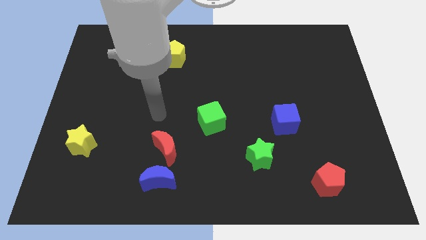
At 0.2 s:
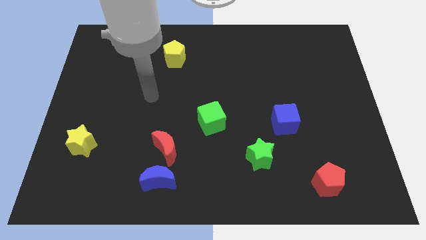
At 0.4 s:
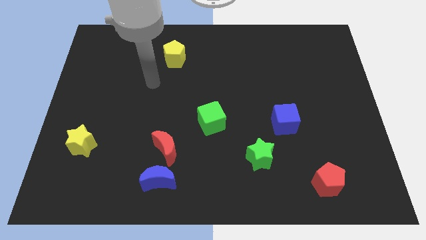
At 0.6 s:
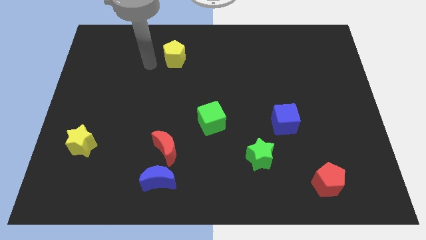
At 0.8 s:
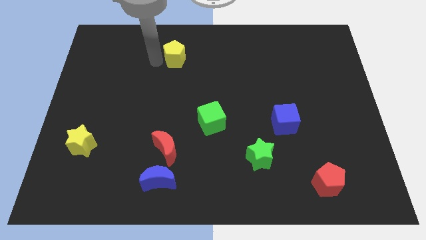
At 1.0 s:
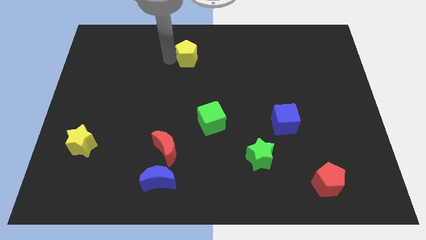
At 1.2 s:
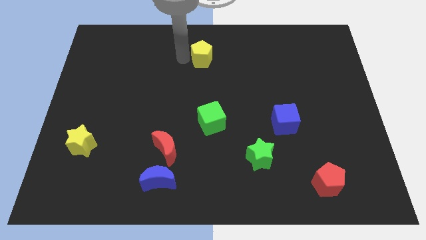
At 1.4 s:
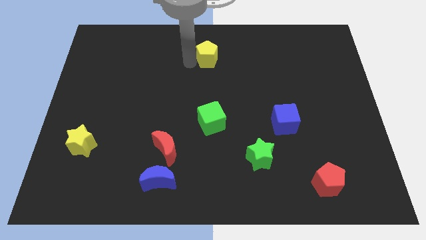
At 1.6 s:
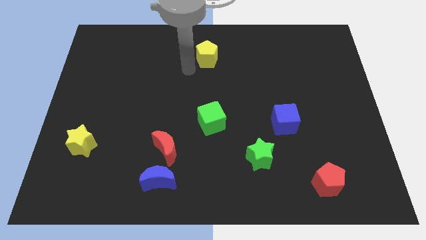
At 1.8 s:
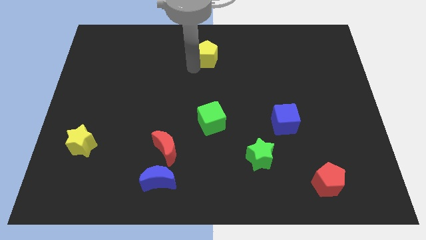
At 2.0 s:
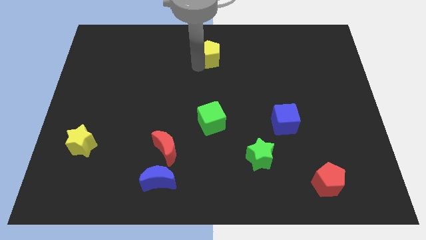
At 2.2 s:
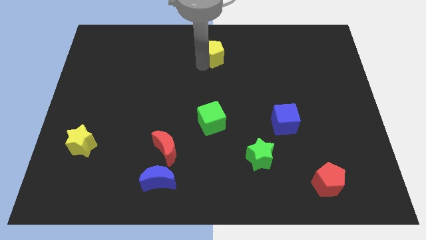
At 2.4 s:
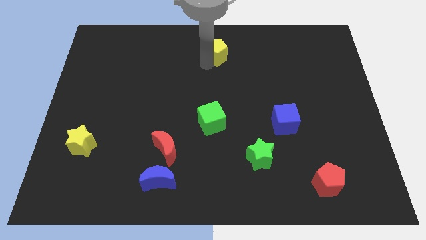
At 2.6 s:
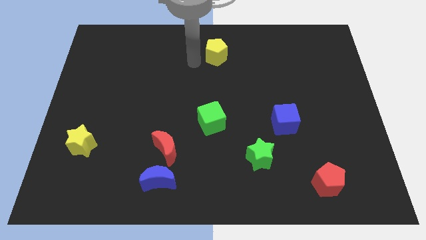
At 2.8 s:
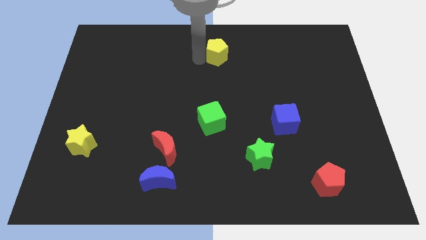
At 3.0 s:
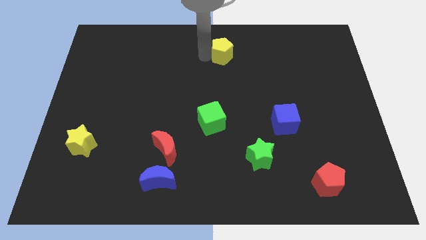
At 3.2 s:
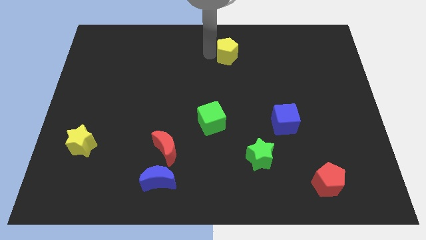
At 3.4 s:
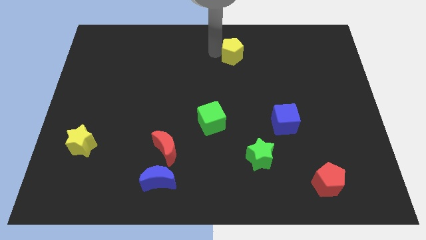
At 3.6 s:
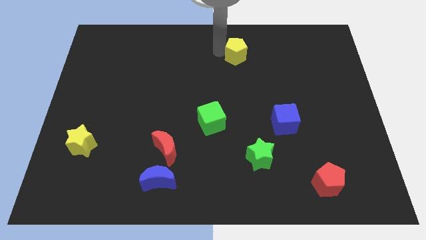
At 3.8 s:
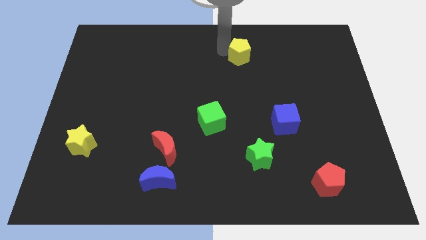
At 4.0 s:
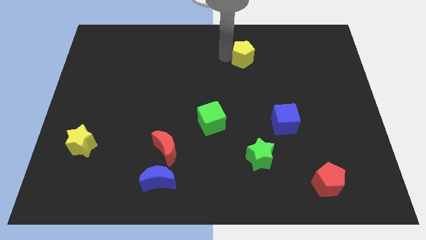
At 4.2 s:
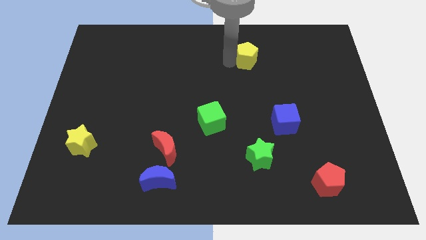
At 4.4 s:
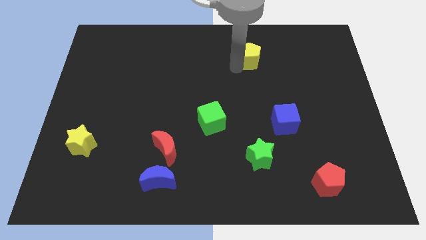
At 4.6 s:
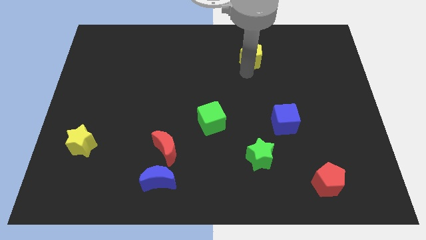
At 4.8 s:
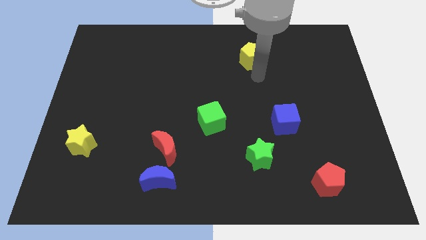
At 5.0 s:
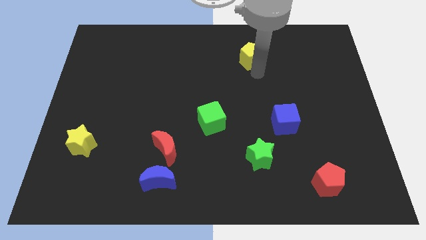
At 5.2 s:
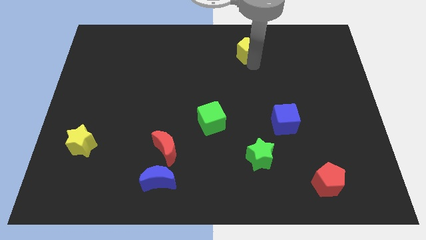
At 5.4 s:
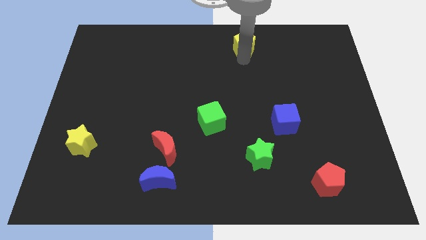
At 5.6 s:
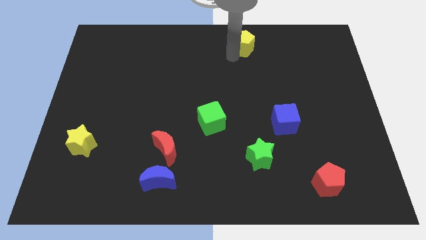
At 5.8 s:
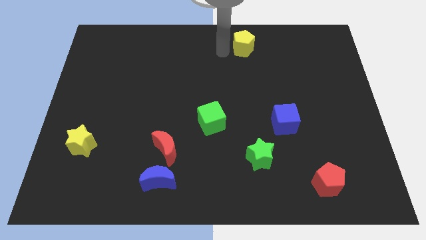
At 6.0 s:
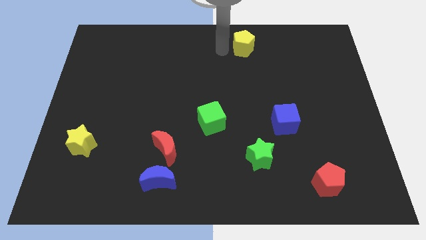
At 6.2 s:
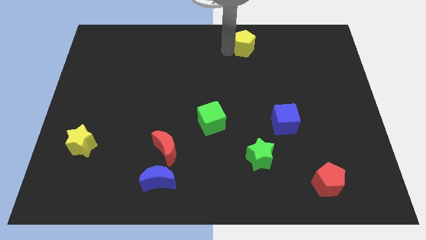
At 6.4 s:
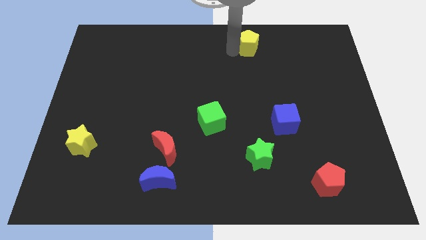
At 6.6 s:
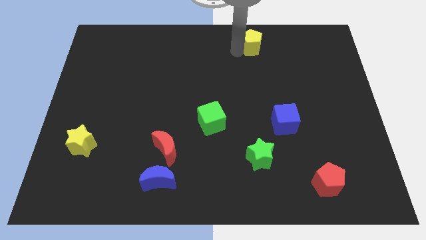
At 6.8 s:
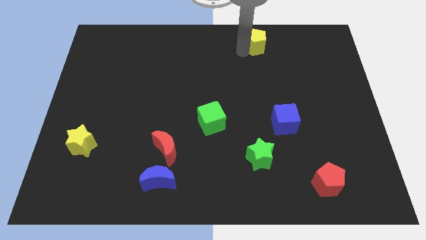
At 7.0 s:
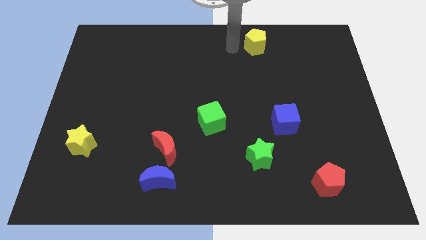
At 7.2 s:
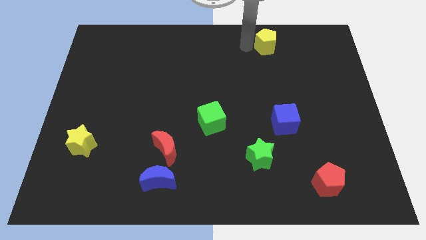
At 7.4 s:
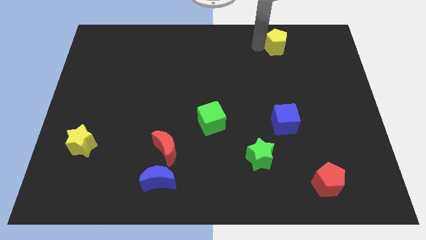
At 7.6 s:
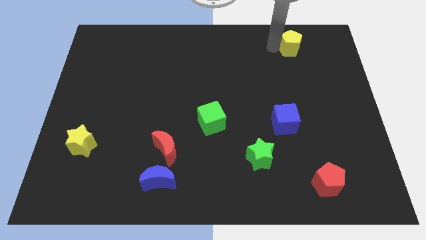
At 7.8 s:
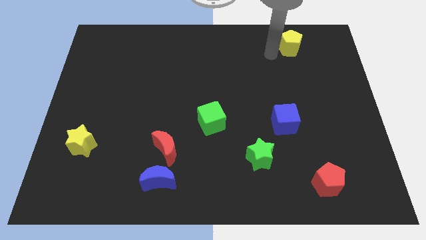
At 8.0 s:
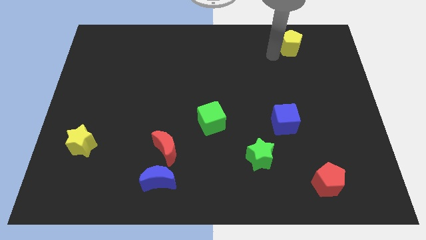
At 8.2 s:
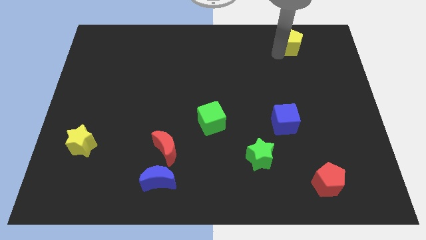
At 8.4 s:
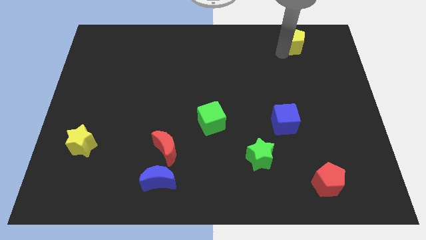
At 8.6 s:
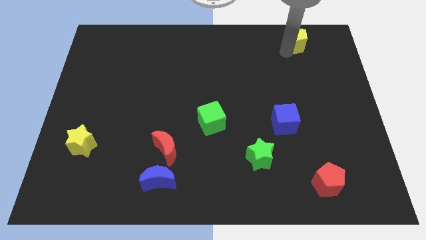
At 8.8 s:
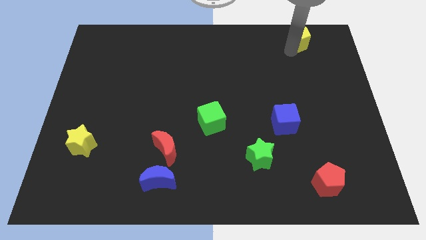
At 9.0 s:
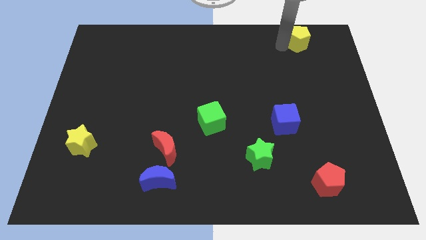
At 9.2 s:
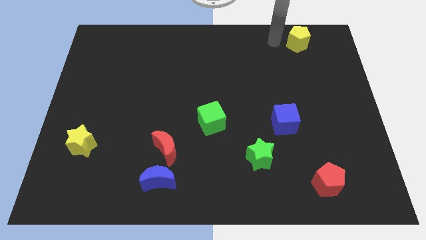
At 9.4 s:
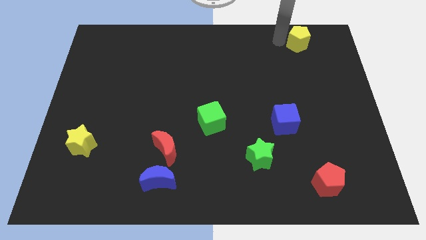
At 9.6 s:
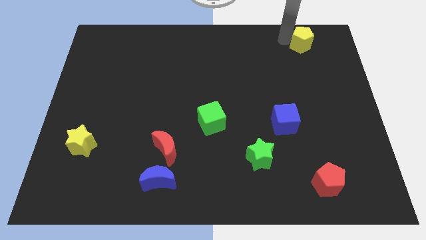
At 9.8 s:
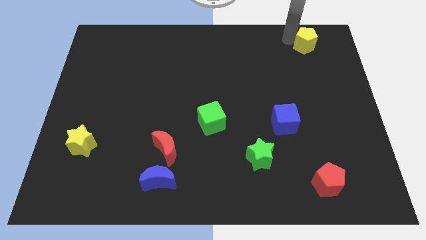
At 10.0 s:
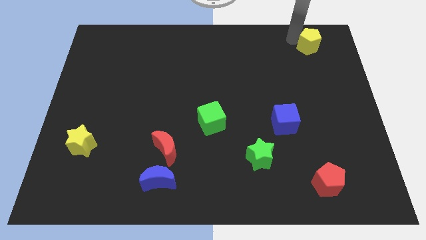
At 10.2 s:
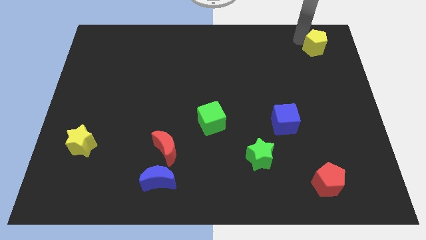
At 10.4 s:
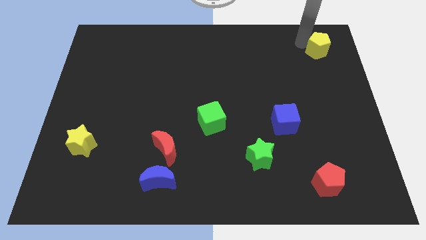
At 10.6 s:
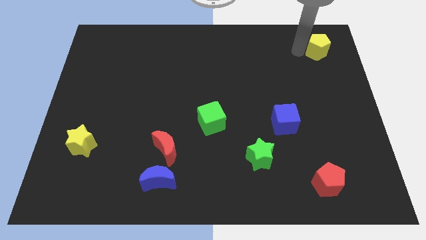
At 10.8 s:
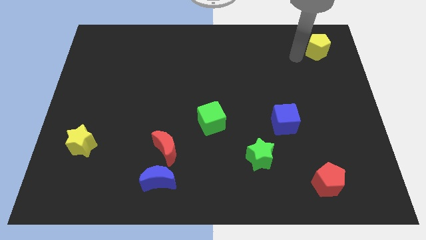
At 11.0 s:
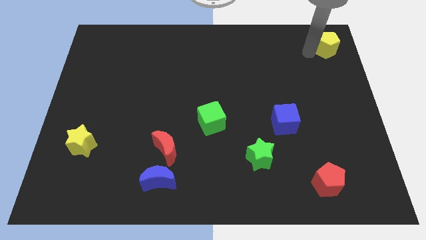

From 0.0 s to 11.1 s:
slide the yellow pentagon to the upper right corner

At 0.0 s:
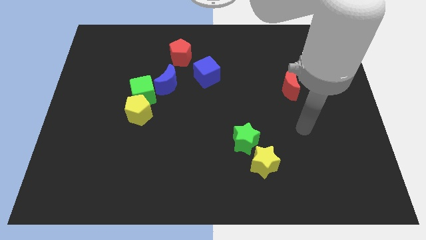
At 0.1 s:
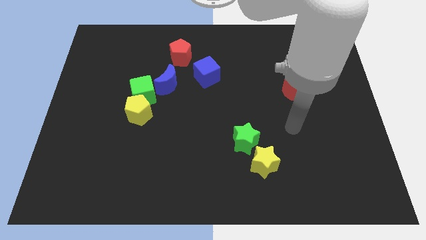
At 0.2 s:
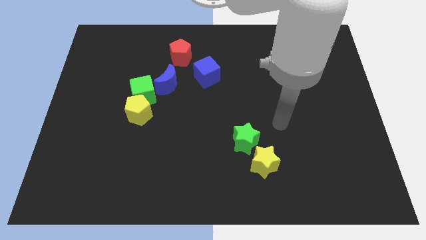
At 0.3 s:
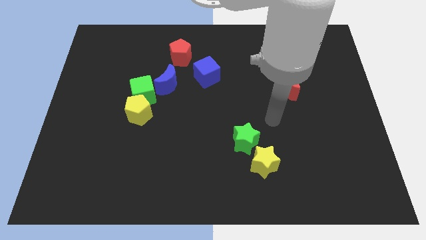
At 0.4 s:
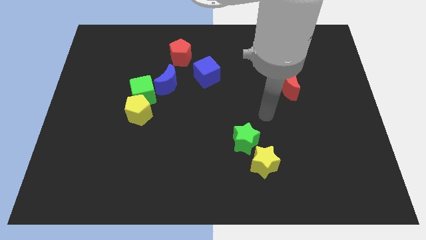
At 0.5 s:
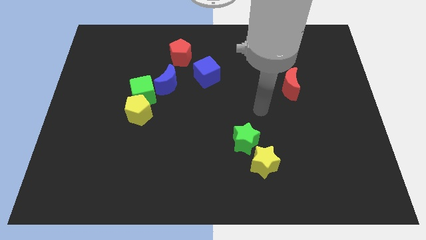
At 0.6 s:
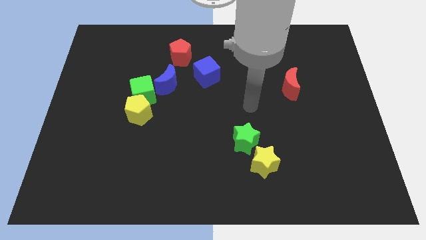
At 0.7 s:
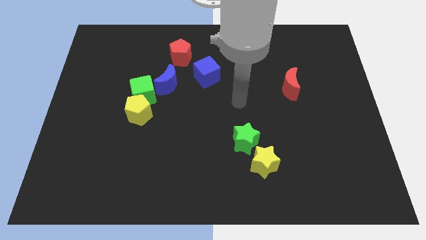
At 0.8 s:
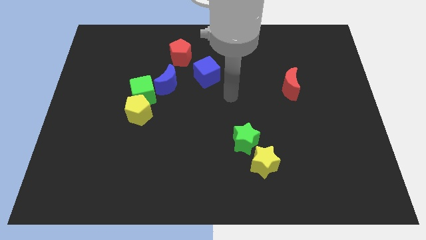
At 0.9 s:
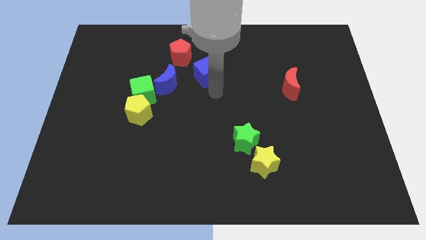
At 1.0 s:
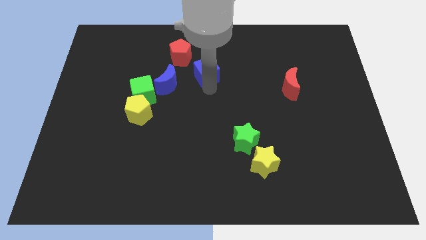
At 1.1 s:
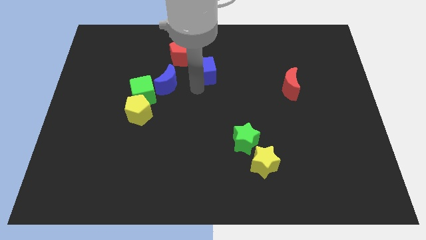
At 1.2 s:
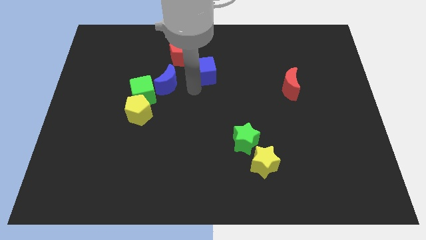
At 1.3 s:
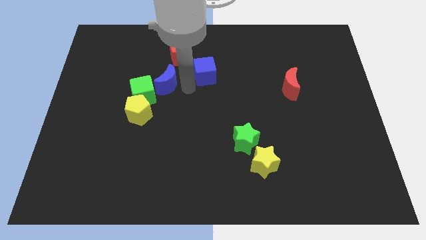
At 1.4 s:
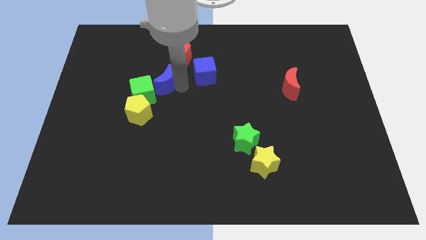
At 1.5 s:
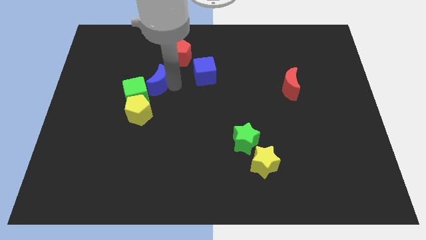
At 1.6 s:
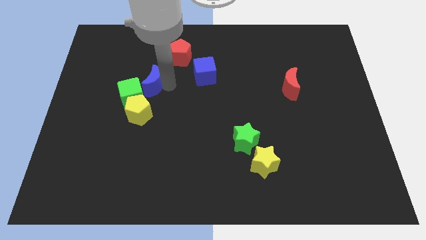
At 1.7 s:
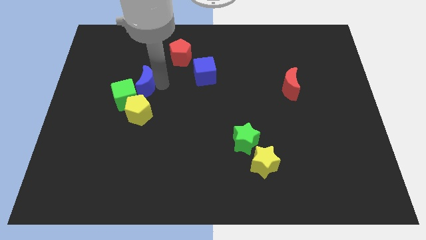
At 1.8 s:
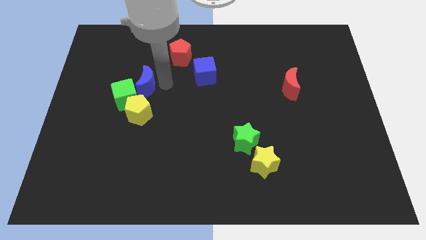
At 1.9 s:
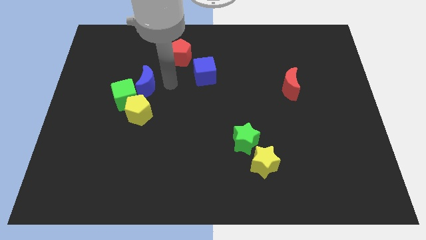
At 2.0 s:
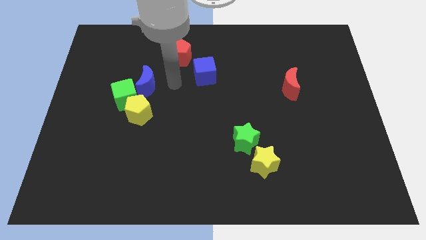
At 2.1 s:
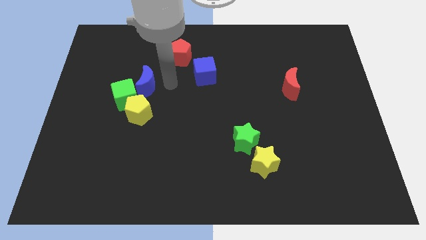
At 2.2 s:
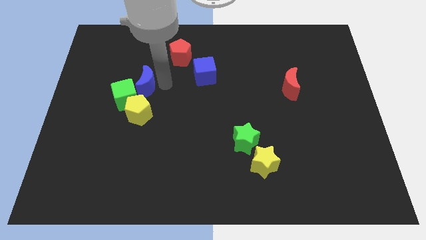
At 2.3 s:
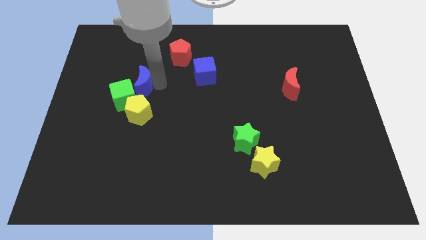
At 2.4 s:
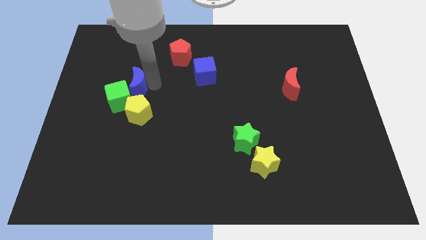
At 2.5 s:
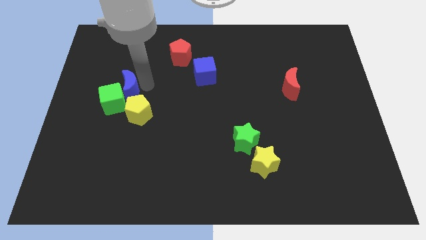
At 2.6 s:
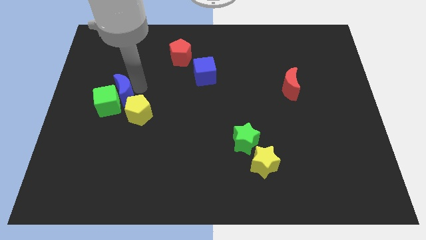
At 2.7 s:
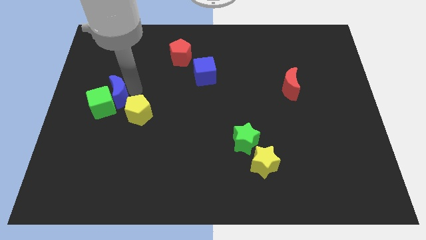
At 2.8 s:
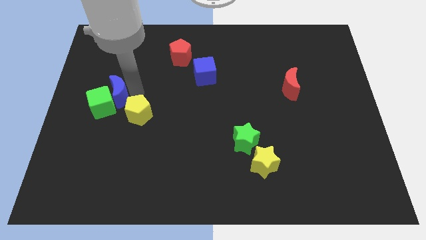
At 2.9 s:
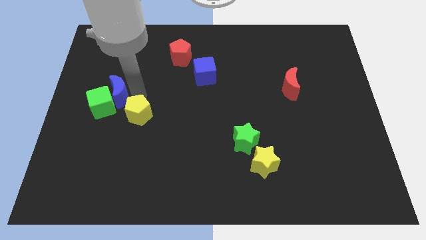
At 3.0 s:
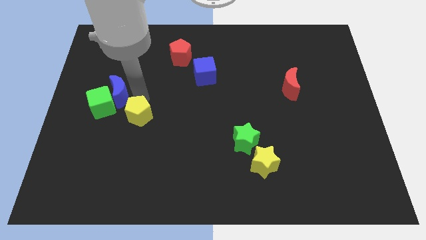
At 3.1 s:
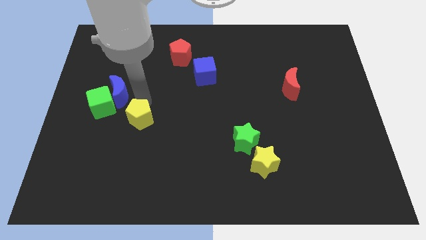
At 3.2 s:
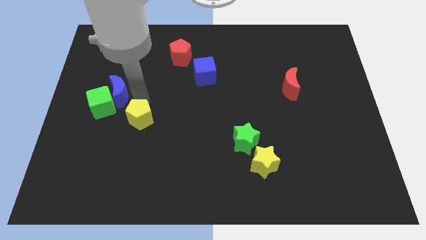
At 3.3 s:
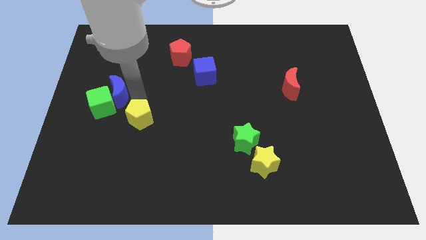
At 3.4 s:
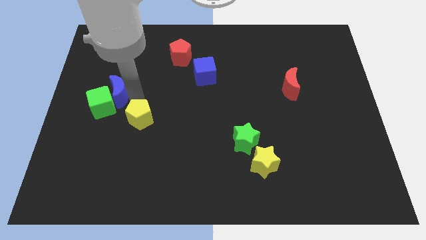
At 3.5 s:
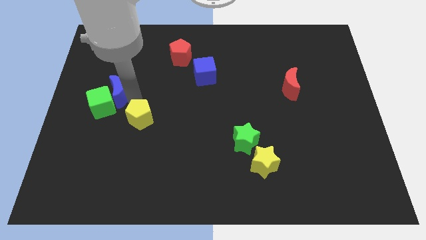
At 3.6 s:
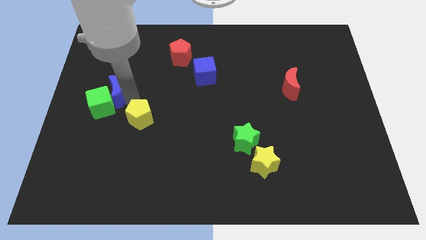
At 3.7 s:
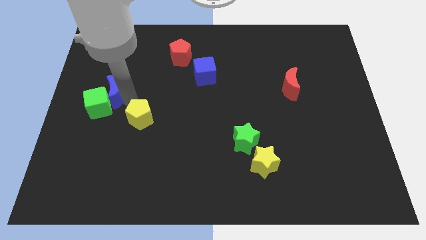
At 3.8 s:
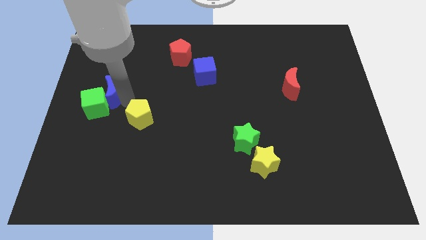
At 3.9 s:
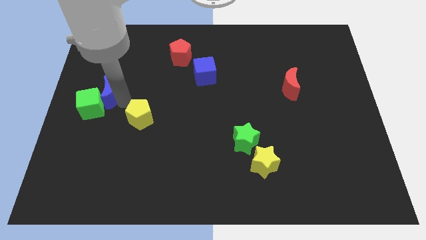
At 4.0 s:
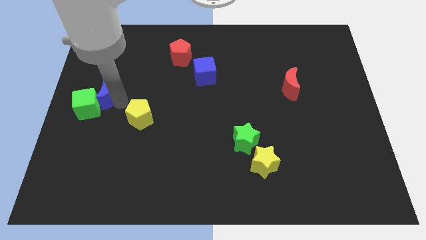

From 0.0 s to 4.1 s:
put the blue moon to the left side of the board
